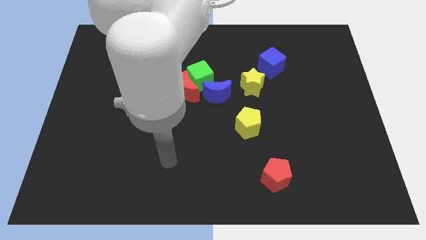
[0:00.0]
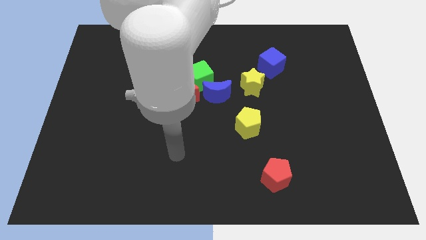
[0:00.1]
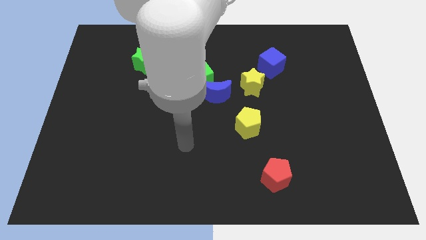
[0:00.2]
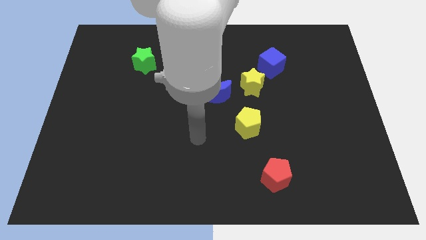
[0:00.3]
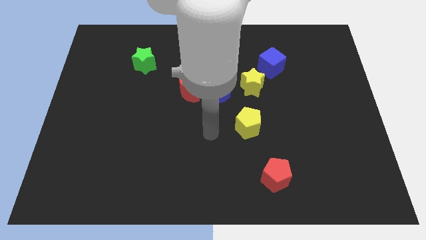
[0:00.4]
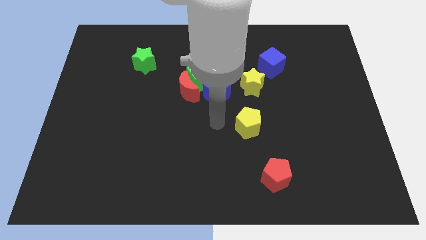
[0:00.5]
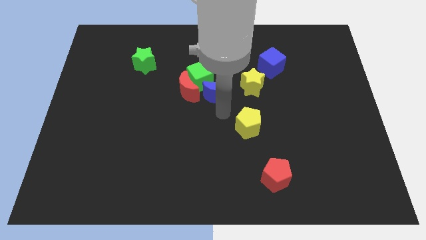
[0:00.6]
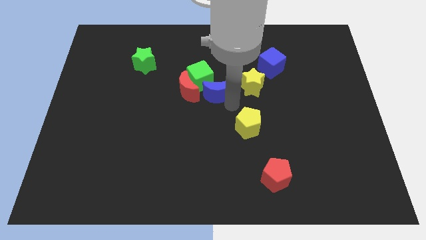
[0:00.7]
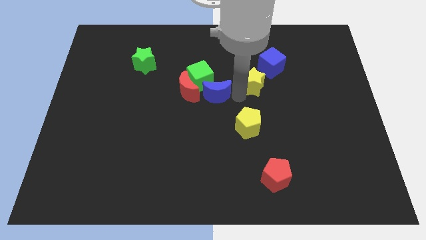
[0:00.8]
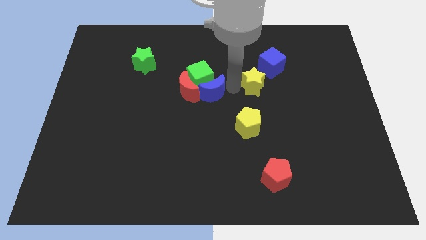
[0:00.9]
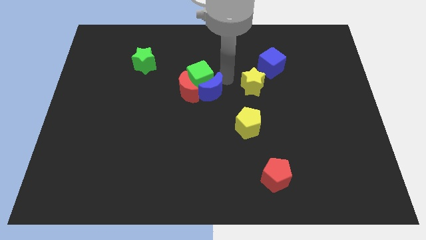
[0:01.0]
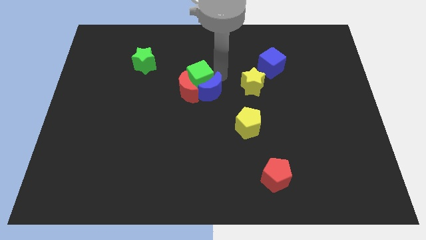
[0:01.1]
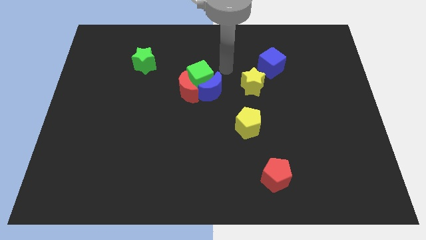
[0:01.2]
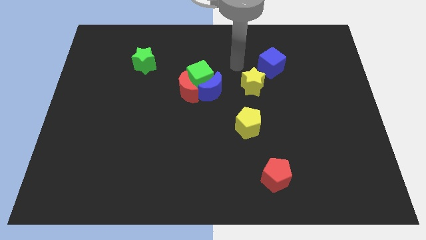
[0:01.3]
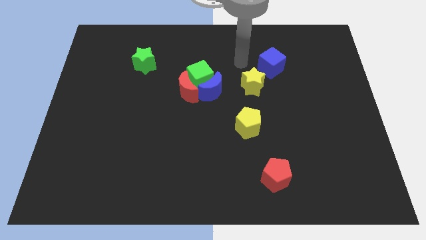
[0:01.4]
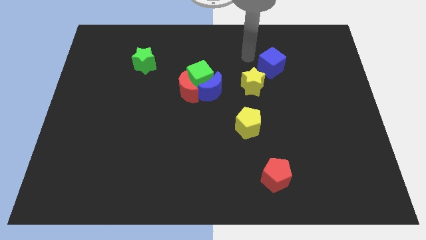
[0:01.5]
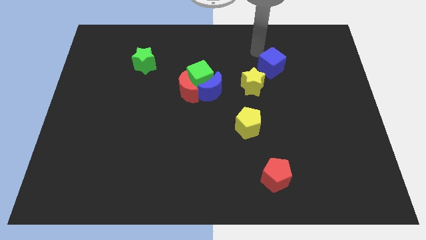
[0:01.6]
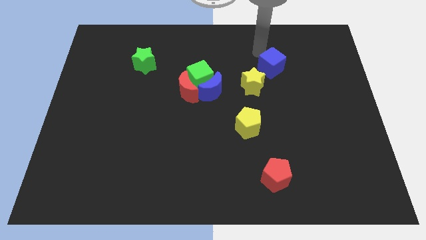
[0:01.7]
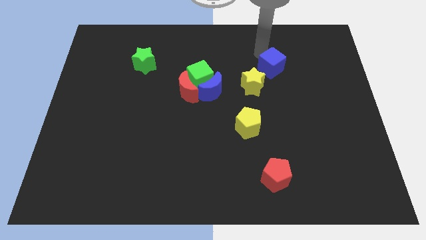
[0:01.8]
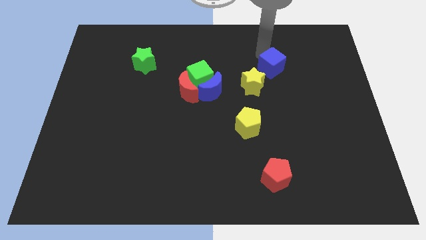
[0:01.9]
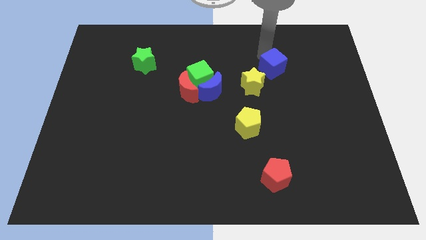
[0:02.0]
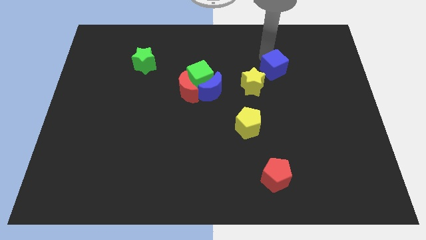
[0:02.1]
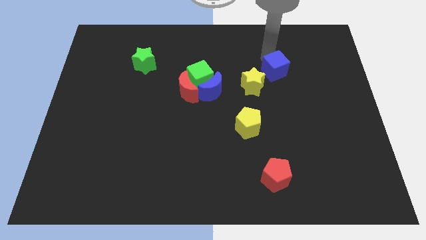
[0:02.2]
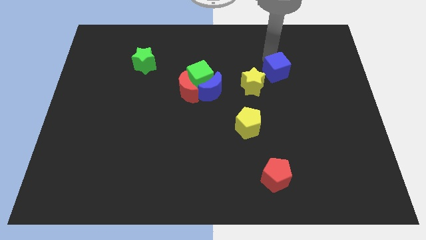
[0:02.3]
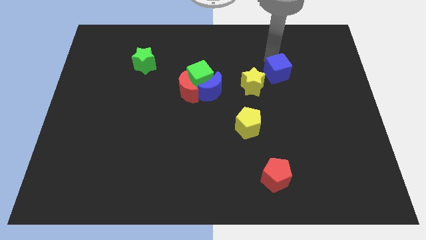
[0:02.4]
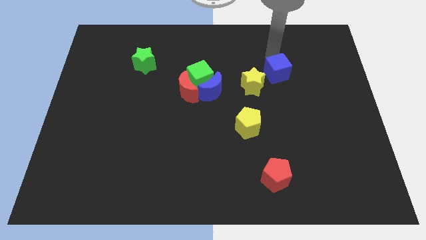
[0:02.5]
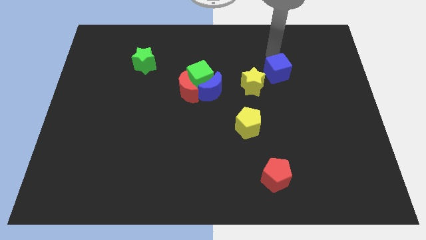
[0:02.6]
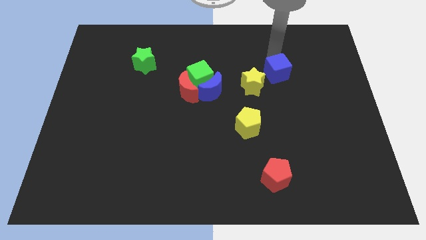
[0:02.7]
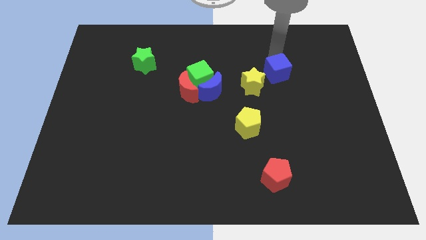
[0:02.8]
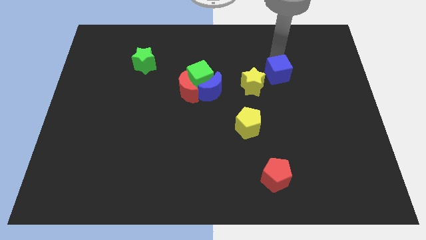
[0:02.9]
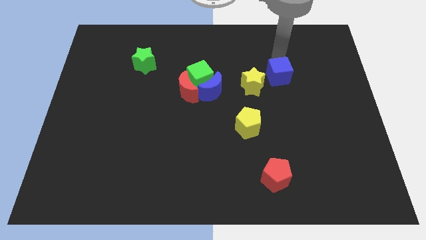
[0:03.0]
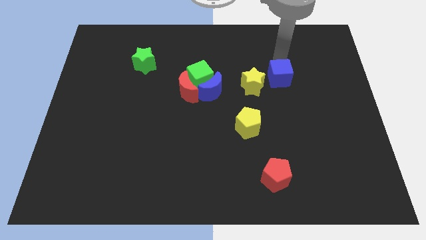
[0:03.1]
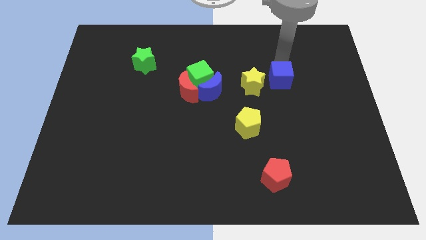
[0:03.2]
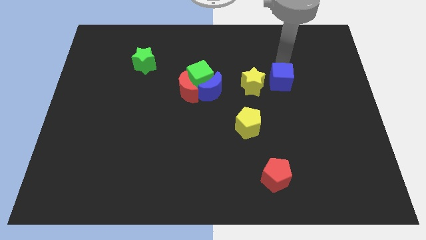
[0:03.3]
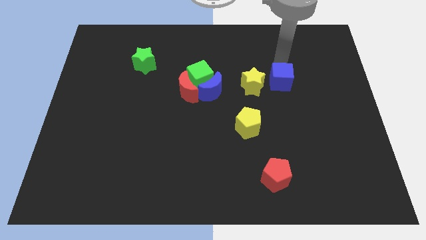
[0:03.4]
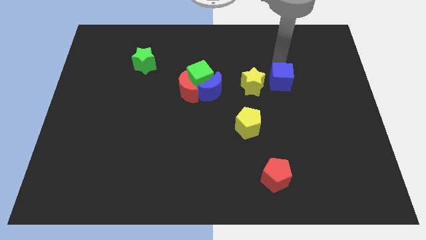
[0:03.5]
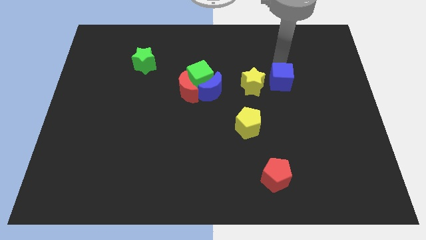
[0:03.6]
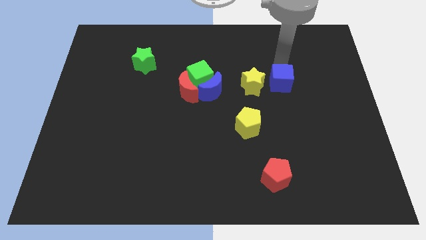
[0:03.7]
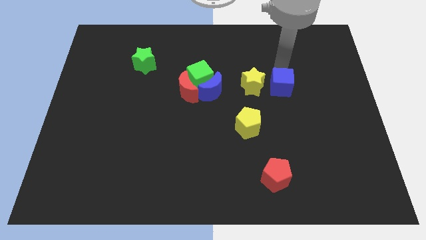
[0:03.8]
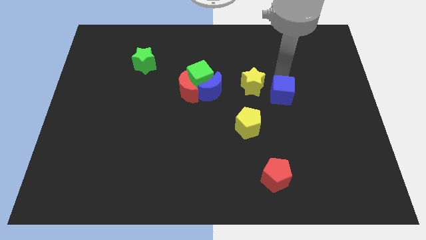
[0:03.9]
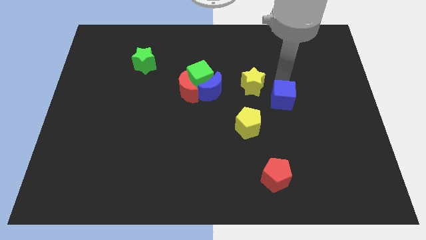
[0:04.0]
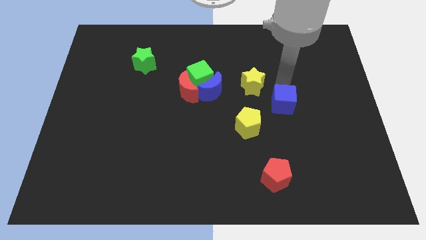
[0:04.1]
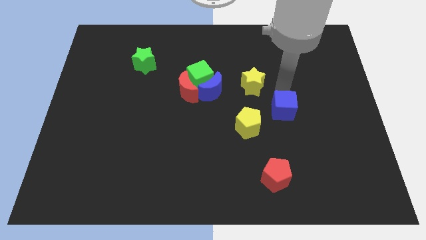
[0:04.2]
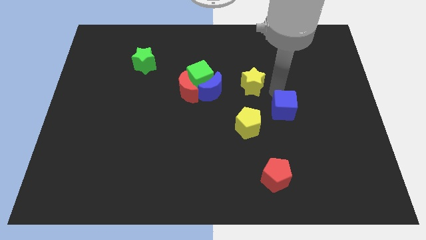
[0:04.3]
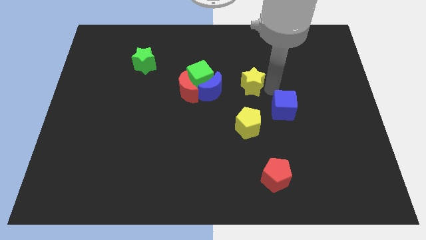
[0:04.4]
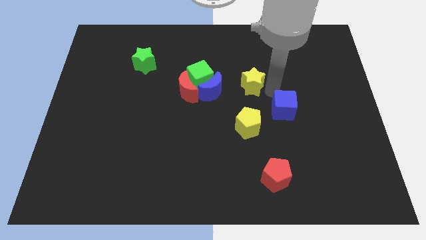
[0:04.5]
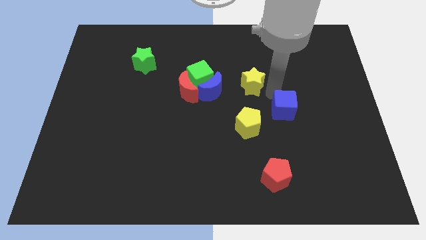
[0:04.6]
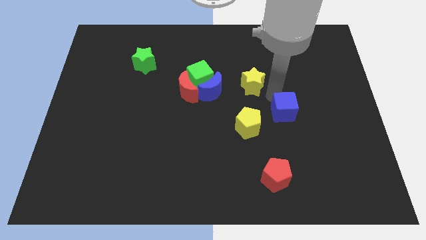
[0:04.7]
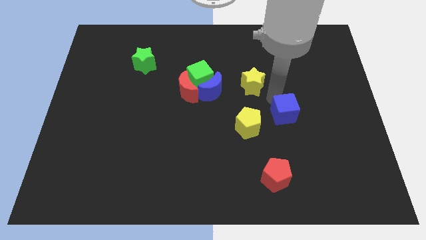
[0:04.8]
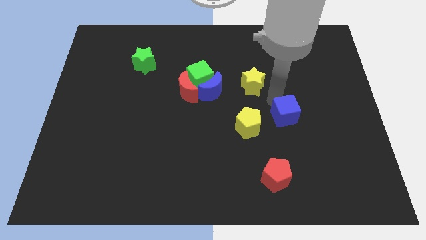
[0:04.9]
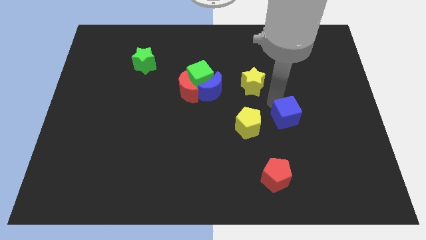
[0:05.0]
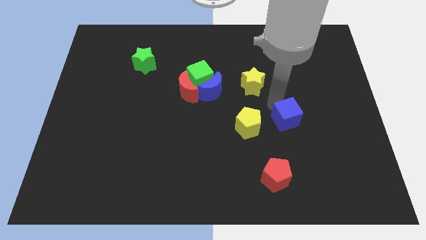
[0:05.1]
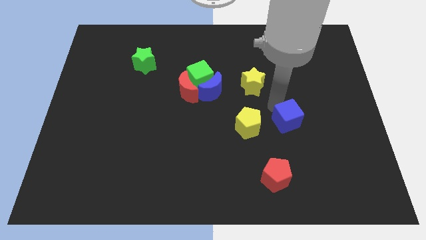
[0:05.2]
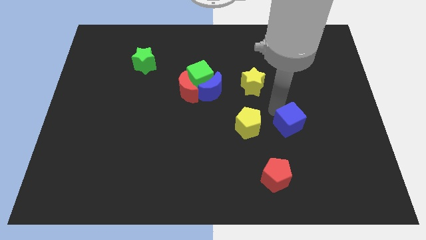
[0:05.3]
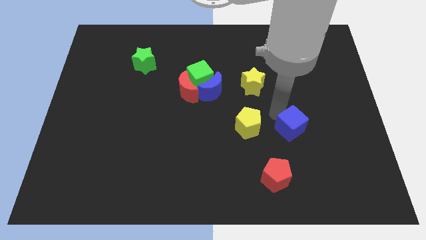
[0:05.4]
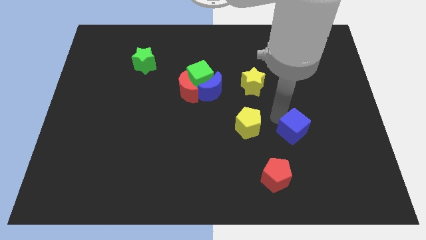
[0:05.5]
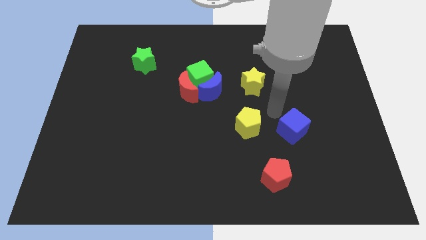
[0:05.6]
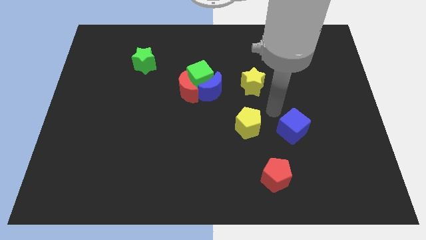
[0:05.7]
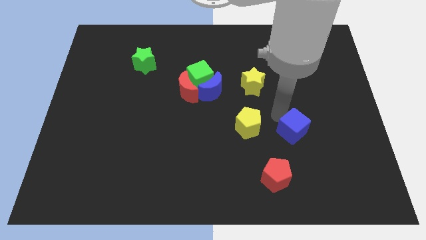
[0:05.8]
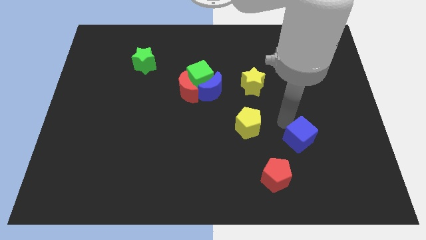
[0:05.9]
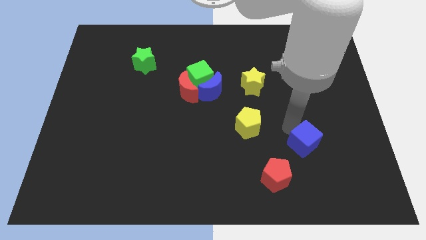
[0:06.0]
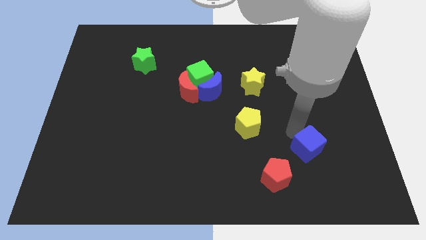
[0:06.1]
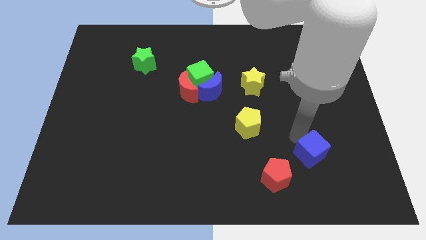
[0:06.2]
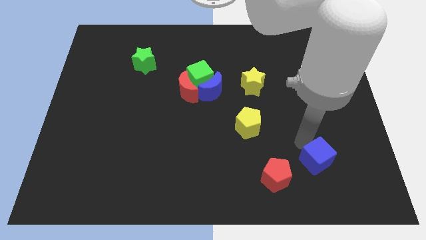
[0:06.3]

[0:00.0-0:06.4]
move the blue cube right of the red pentagon

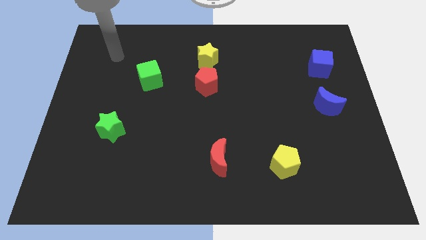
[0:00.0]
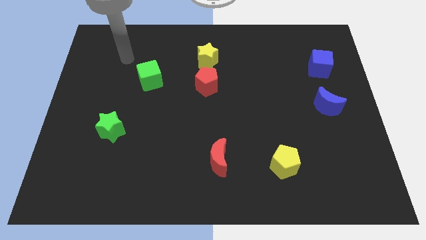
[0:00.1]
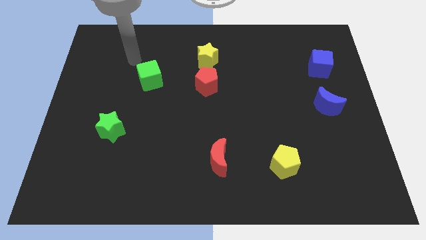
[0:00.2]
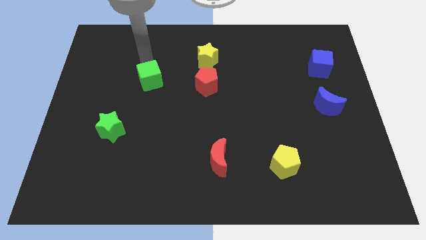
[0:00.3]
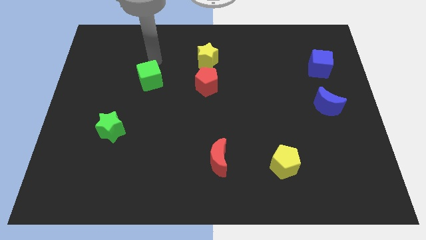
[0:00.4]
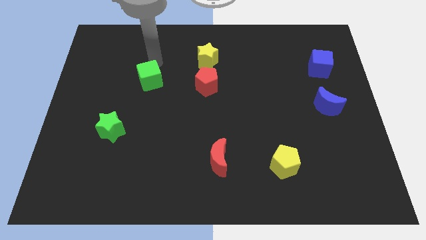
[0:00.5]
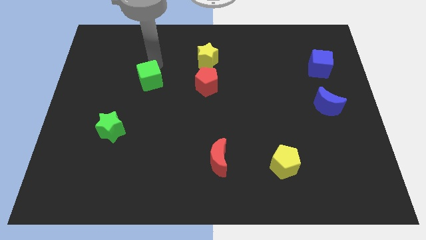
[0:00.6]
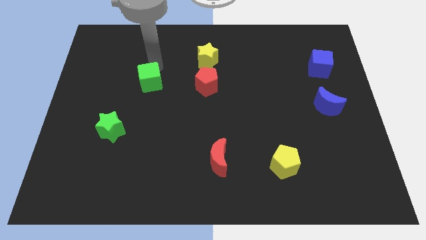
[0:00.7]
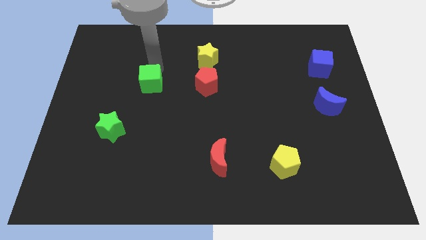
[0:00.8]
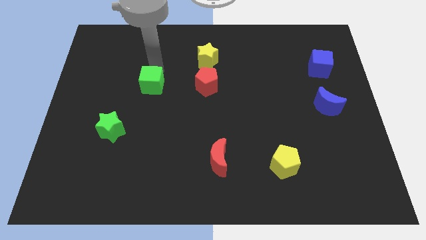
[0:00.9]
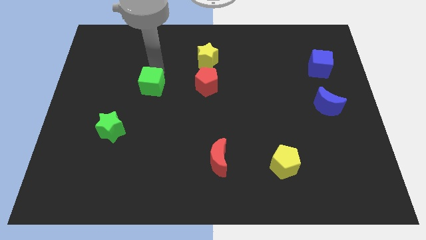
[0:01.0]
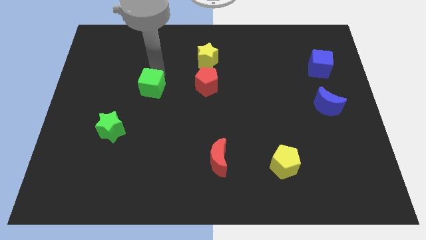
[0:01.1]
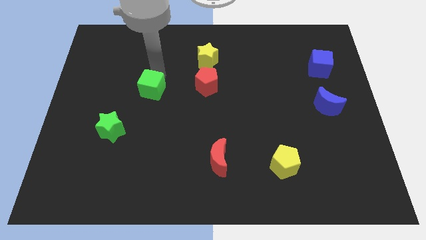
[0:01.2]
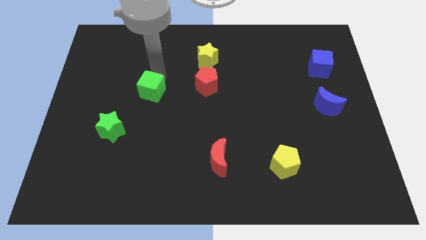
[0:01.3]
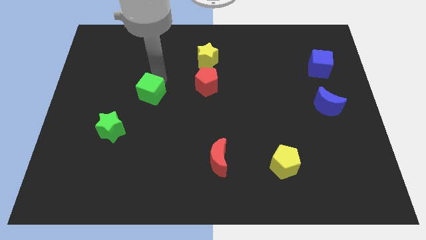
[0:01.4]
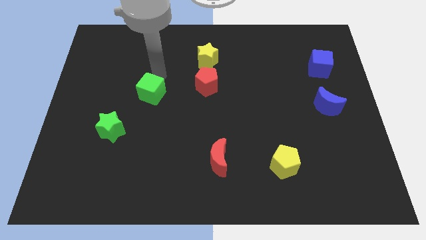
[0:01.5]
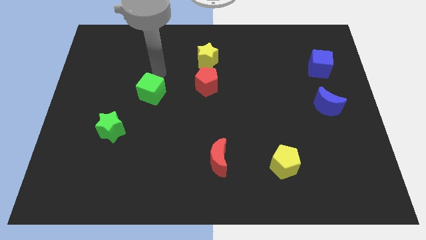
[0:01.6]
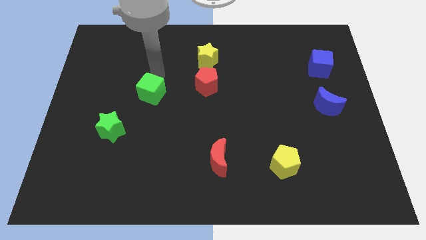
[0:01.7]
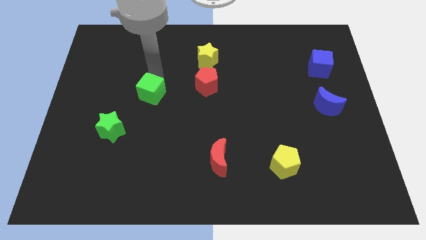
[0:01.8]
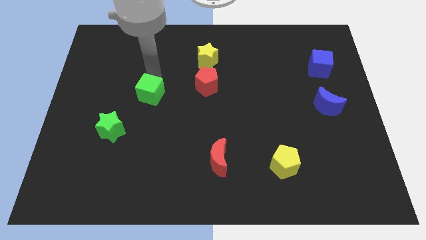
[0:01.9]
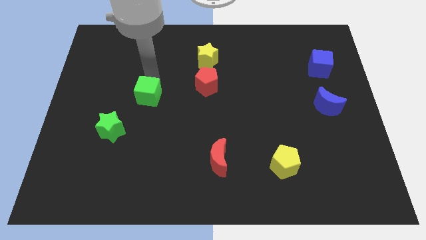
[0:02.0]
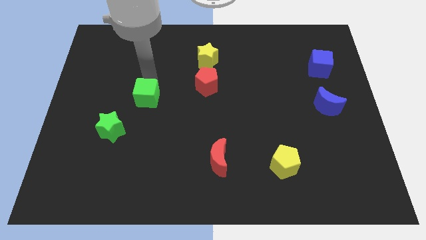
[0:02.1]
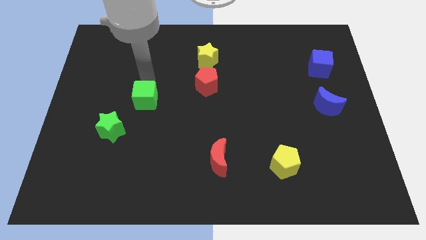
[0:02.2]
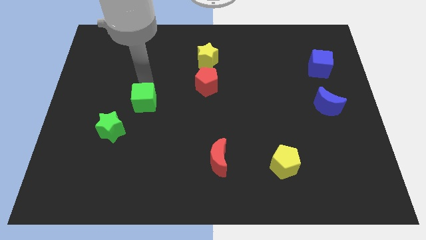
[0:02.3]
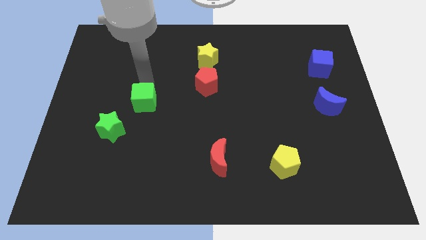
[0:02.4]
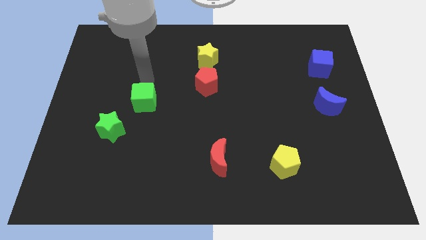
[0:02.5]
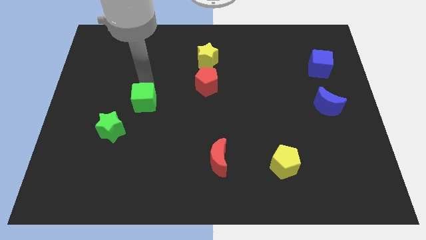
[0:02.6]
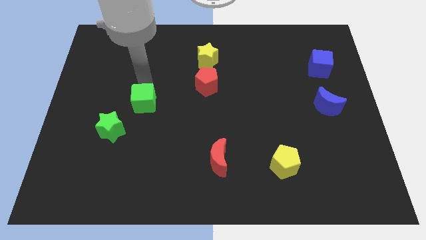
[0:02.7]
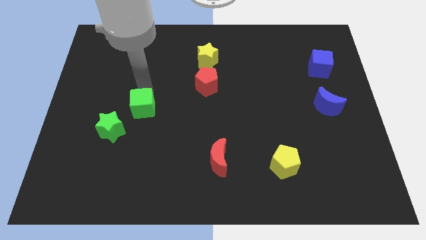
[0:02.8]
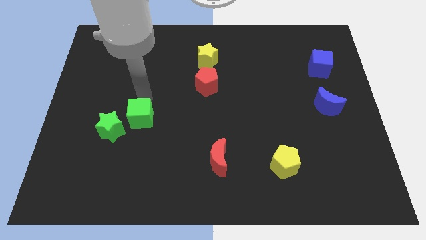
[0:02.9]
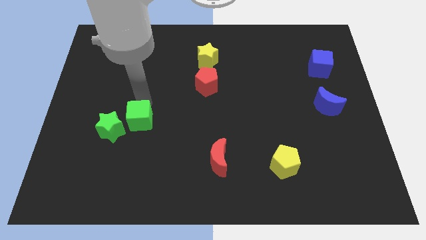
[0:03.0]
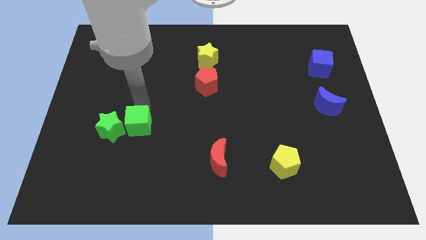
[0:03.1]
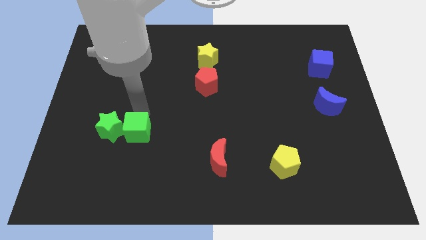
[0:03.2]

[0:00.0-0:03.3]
put the green cube to the bottom right side of the green star
